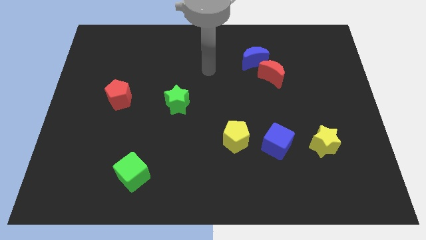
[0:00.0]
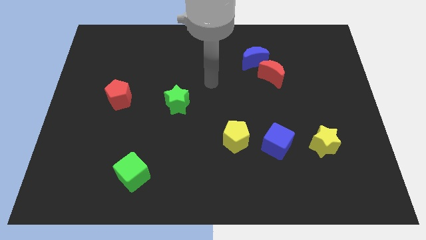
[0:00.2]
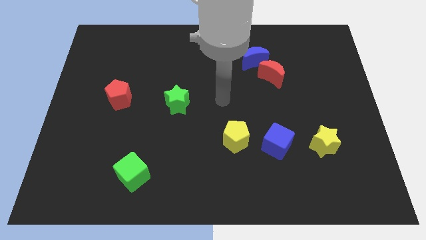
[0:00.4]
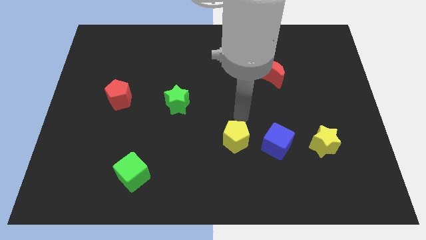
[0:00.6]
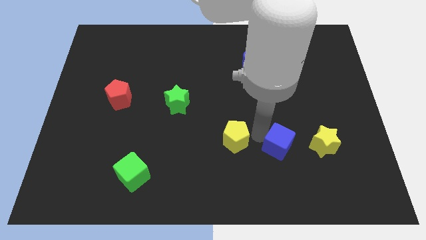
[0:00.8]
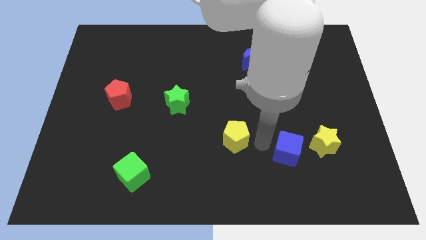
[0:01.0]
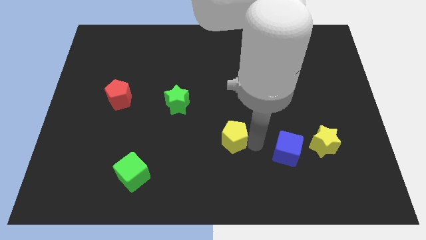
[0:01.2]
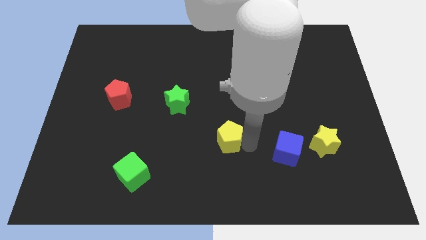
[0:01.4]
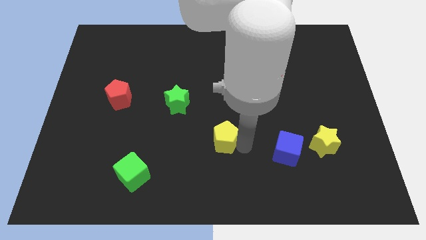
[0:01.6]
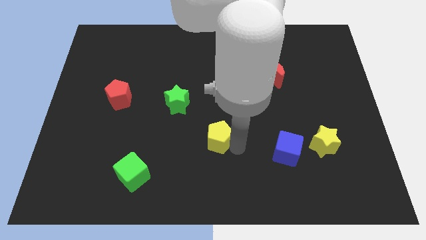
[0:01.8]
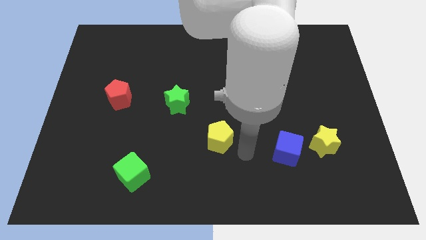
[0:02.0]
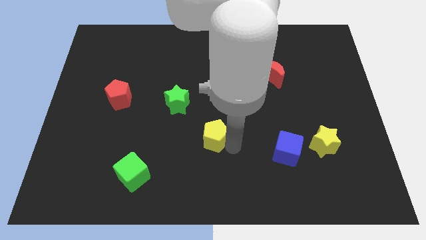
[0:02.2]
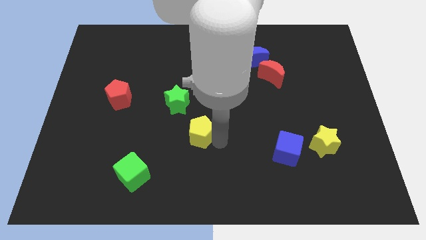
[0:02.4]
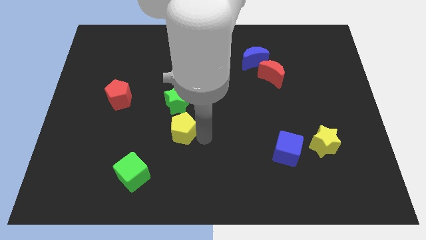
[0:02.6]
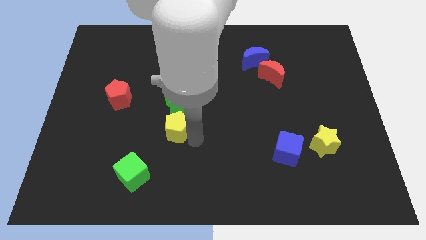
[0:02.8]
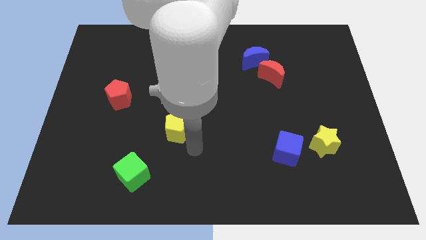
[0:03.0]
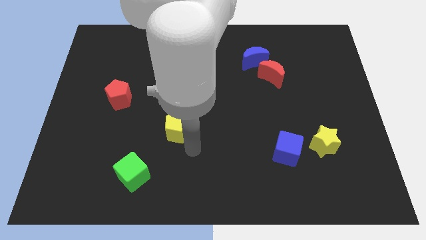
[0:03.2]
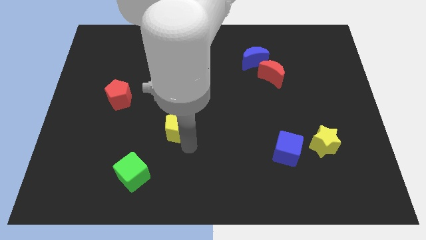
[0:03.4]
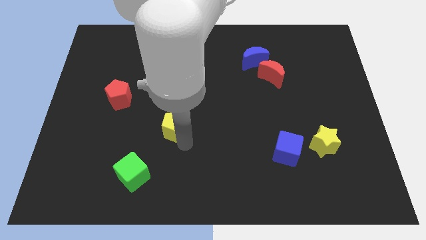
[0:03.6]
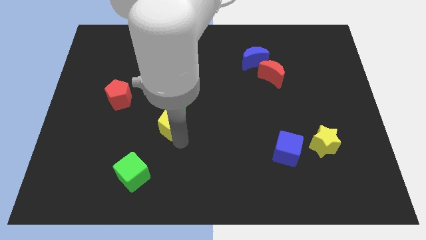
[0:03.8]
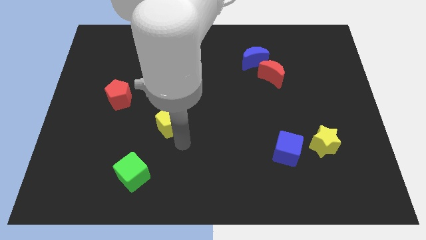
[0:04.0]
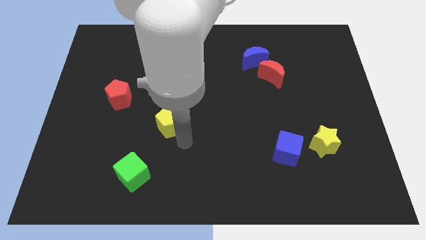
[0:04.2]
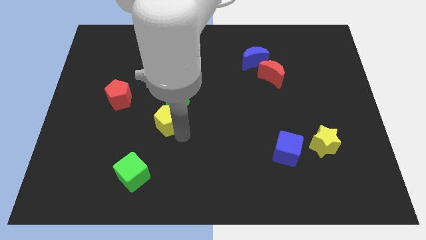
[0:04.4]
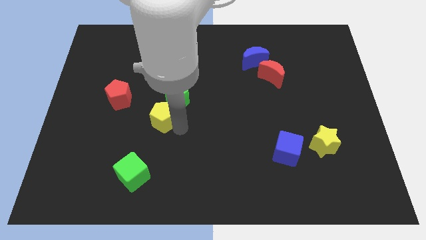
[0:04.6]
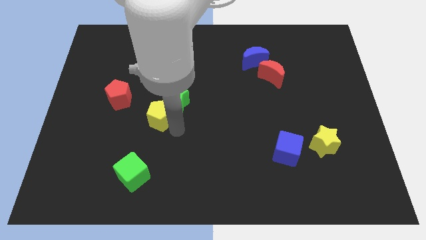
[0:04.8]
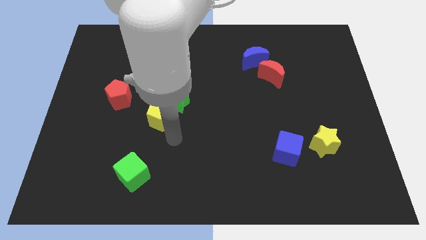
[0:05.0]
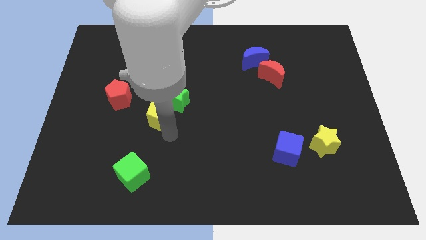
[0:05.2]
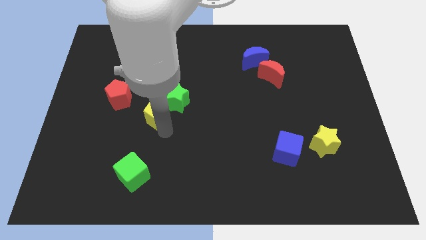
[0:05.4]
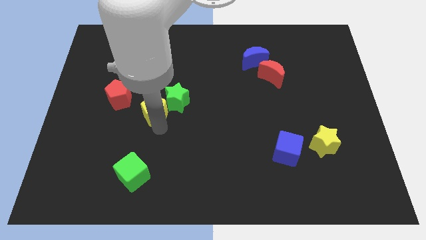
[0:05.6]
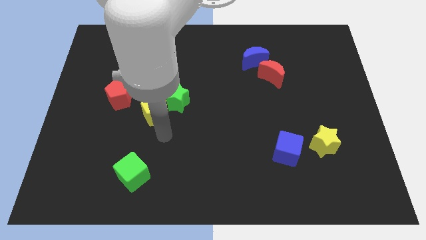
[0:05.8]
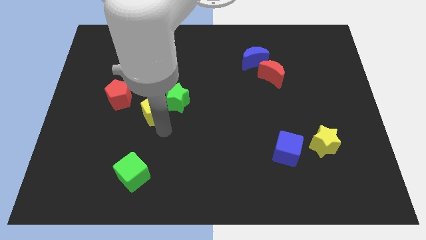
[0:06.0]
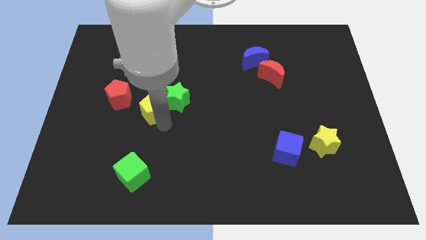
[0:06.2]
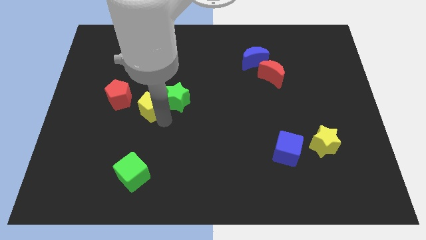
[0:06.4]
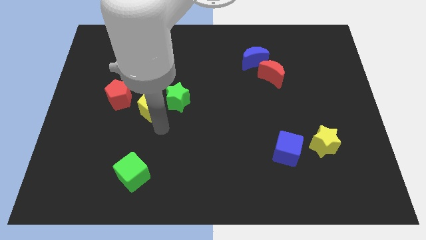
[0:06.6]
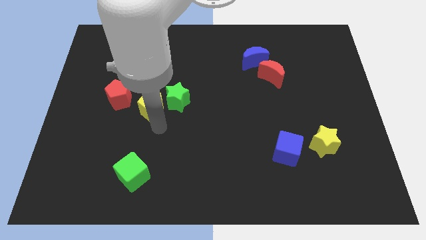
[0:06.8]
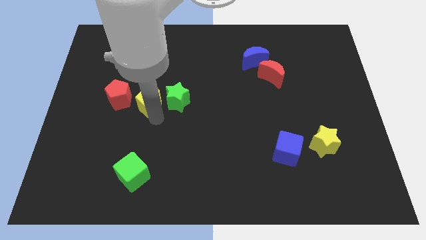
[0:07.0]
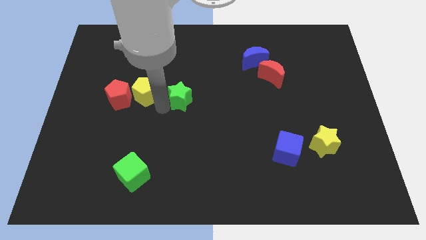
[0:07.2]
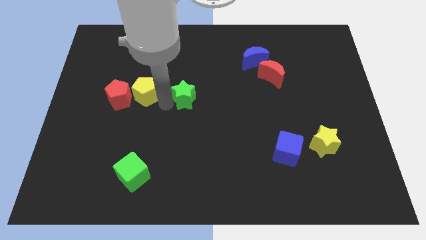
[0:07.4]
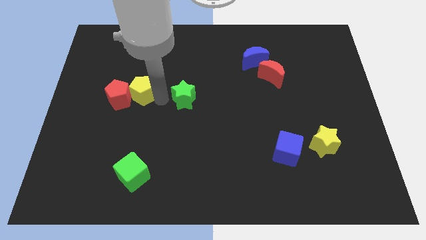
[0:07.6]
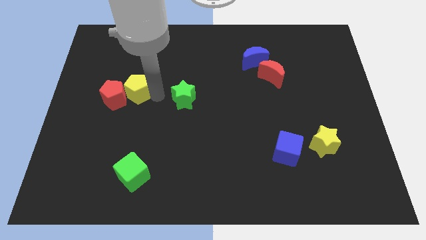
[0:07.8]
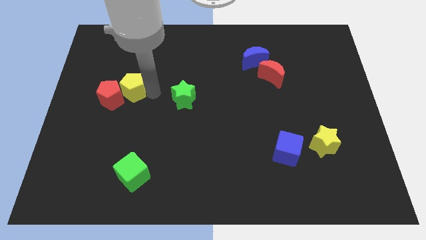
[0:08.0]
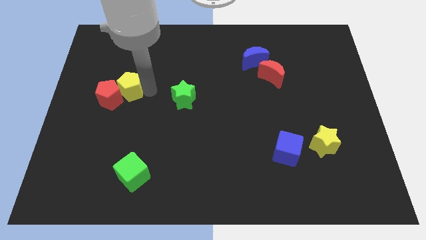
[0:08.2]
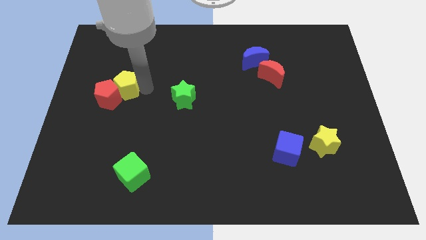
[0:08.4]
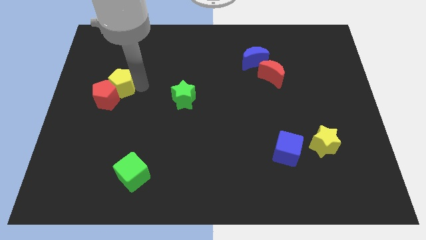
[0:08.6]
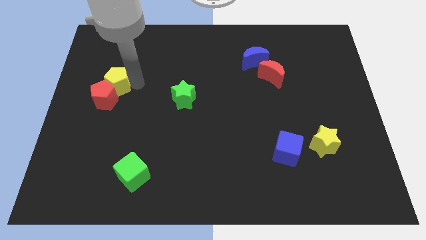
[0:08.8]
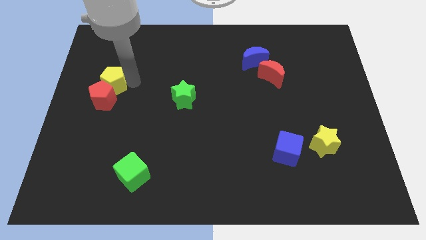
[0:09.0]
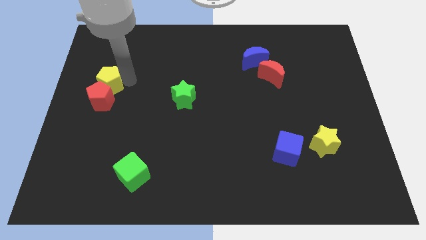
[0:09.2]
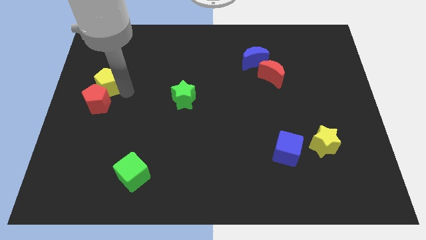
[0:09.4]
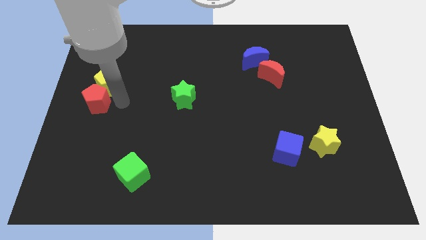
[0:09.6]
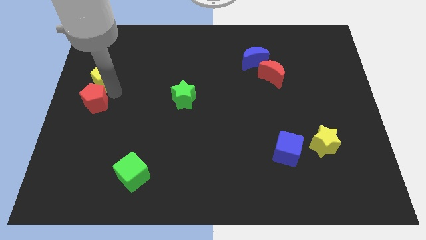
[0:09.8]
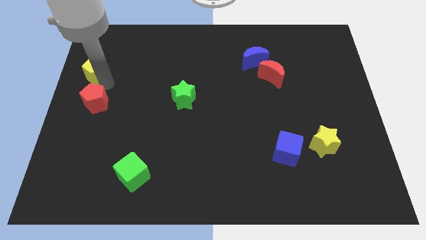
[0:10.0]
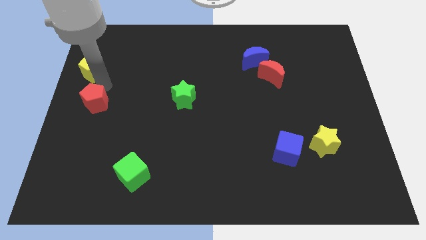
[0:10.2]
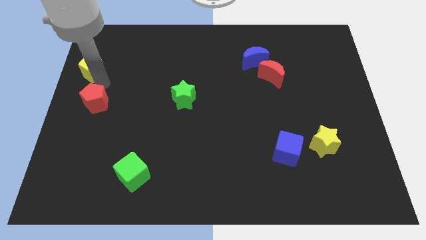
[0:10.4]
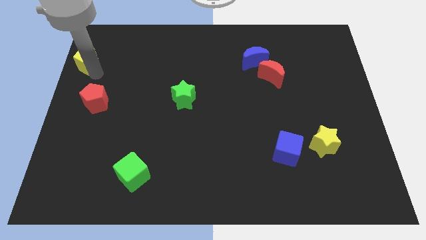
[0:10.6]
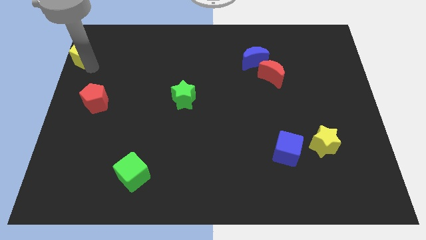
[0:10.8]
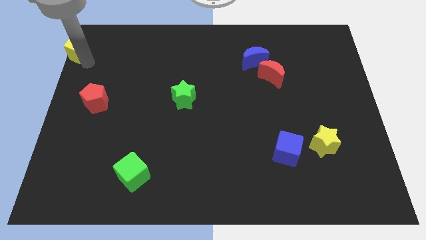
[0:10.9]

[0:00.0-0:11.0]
put the yellow pentagon to the top left corner

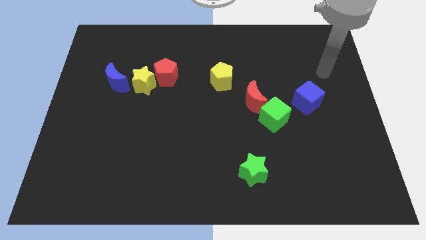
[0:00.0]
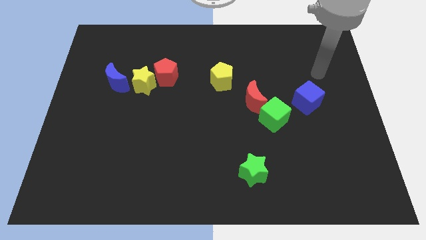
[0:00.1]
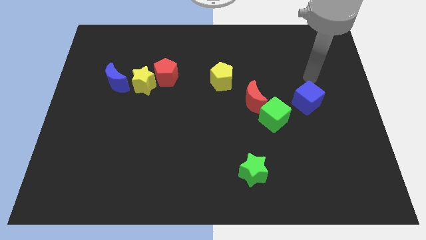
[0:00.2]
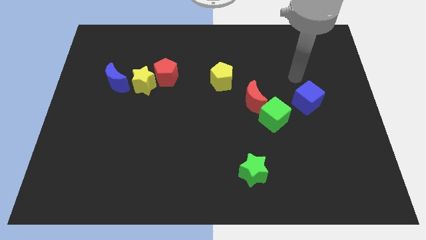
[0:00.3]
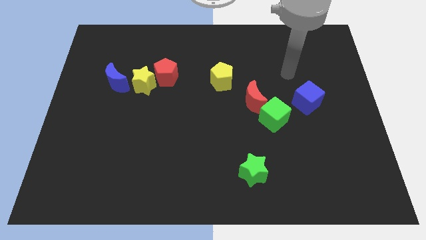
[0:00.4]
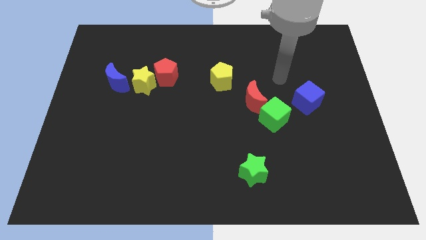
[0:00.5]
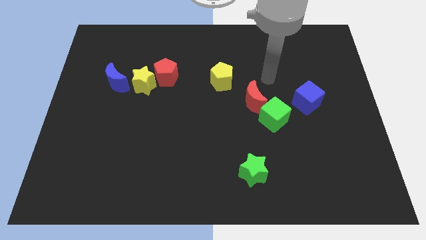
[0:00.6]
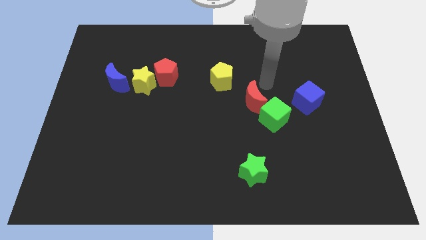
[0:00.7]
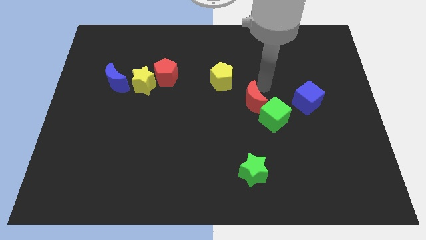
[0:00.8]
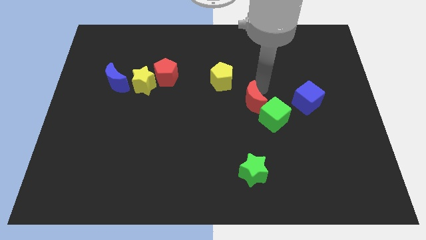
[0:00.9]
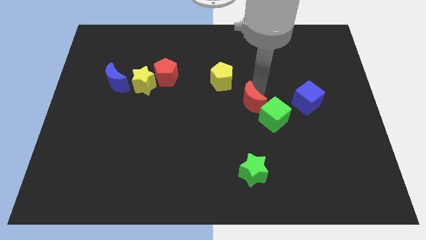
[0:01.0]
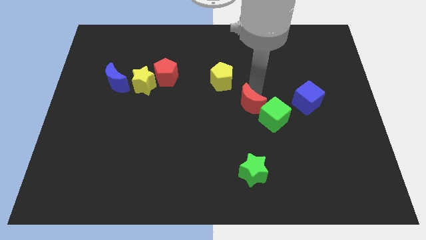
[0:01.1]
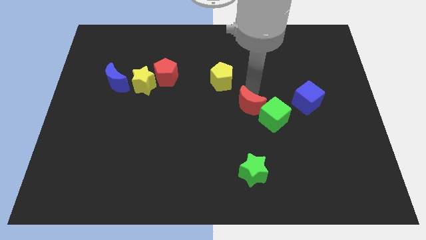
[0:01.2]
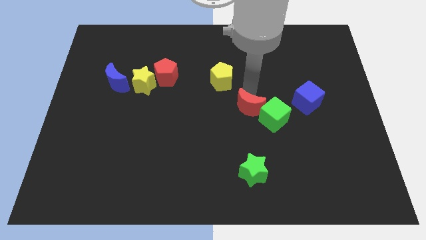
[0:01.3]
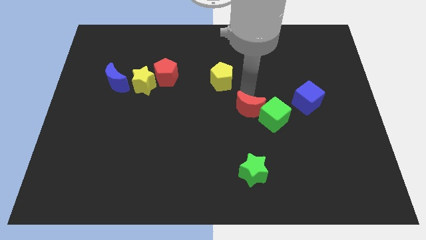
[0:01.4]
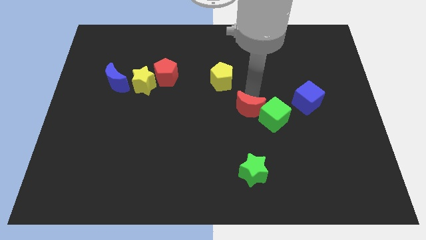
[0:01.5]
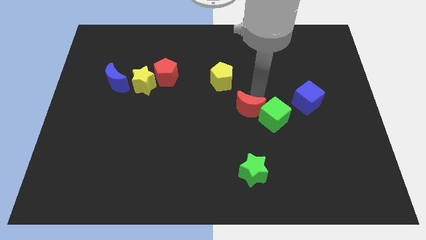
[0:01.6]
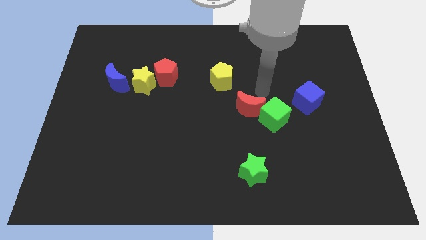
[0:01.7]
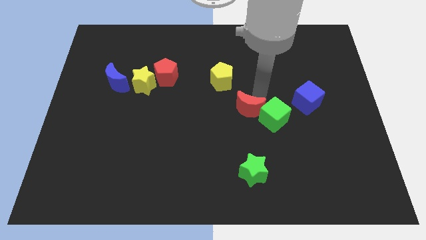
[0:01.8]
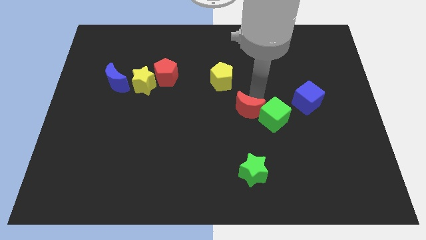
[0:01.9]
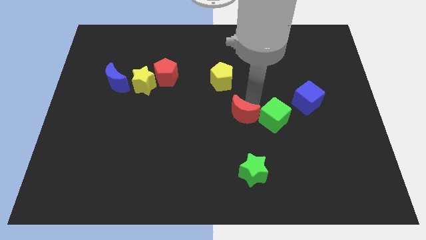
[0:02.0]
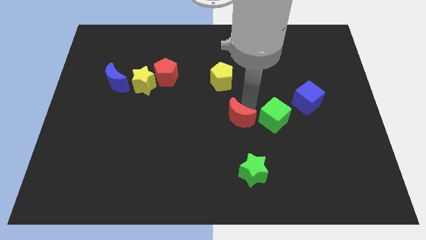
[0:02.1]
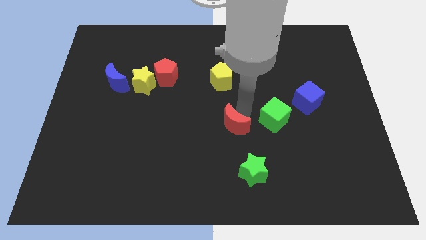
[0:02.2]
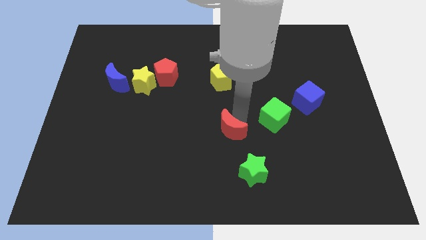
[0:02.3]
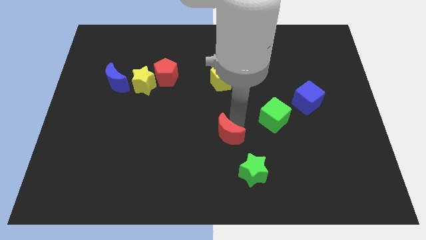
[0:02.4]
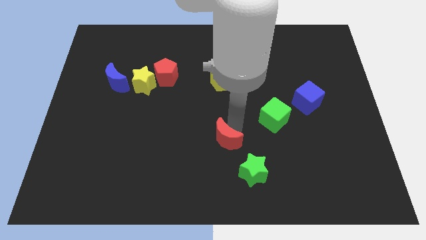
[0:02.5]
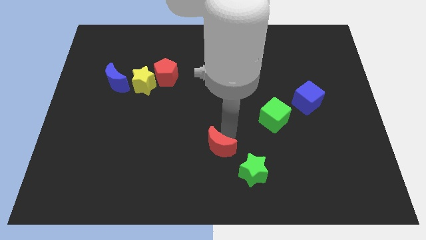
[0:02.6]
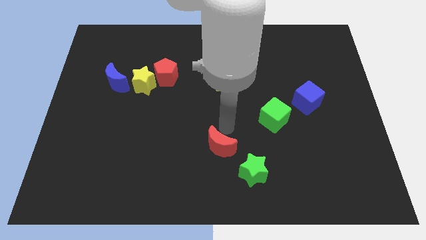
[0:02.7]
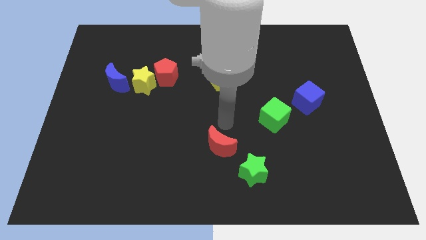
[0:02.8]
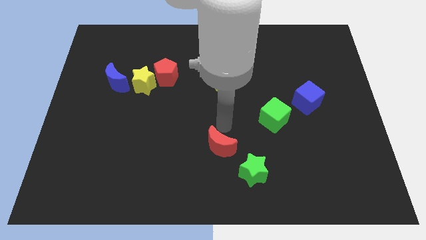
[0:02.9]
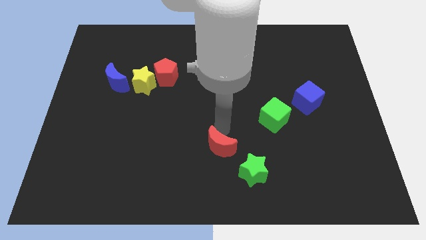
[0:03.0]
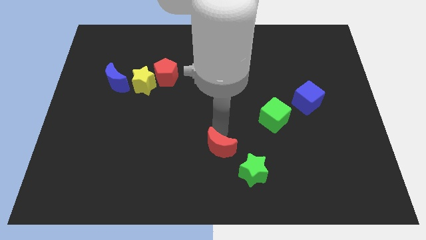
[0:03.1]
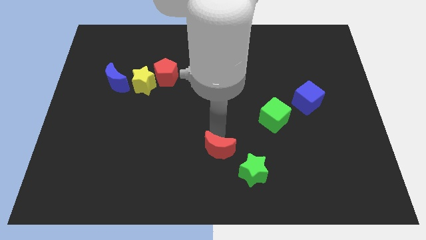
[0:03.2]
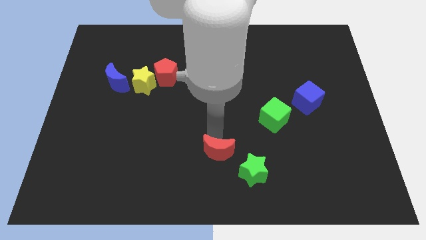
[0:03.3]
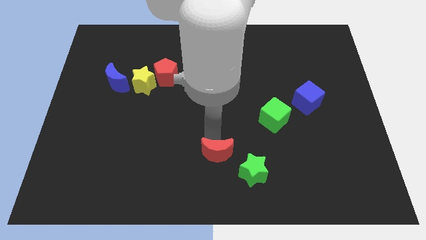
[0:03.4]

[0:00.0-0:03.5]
slide the red moon to the bottom
